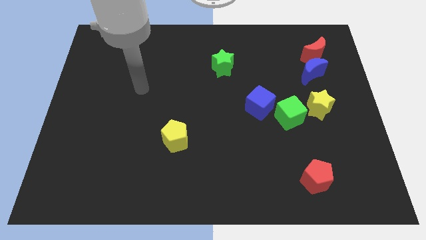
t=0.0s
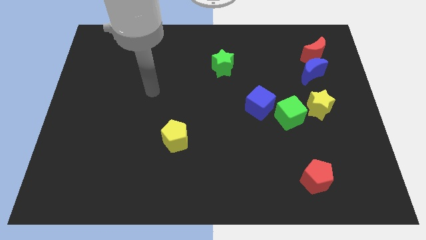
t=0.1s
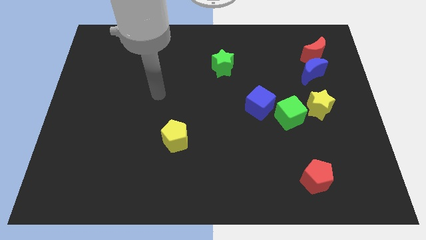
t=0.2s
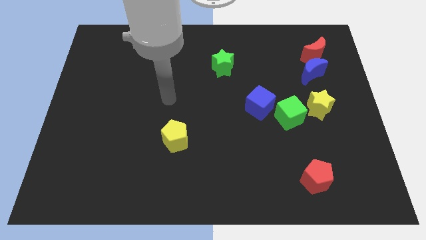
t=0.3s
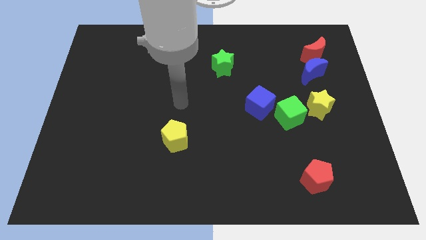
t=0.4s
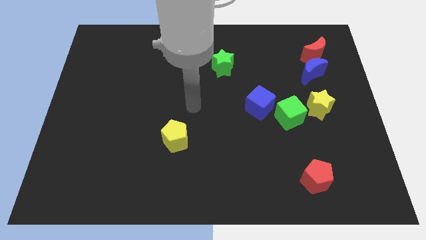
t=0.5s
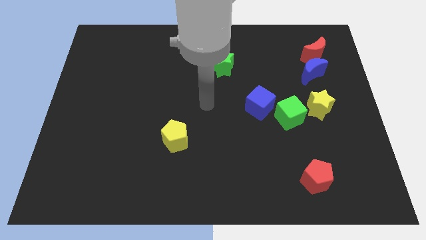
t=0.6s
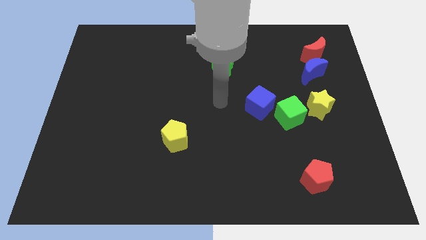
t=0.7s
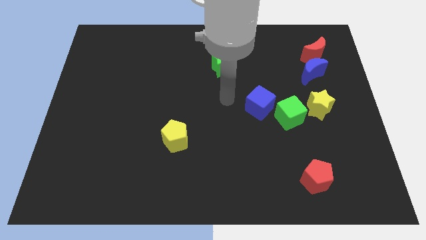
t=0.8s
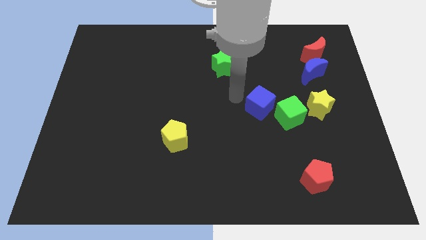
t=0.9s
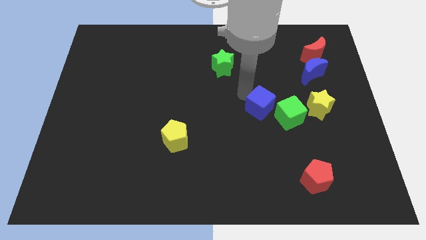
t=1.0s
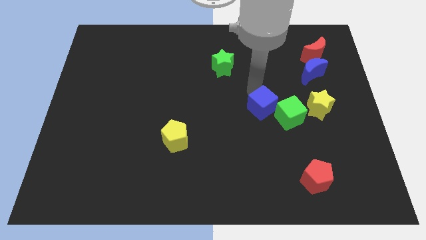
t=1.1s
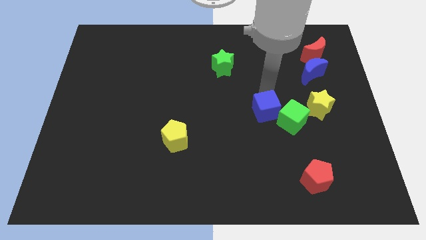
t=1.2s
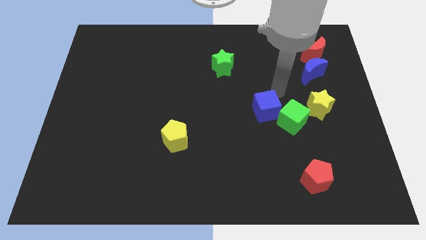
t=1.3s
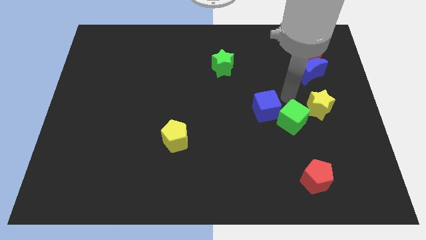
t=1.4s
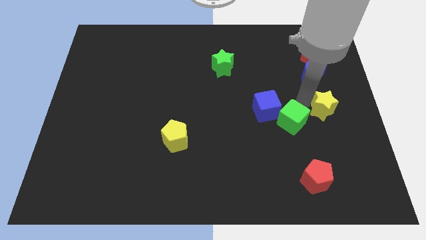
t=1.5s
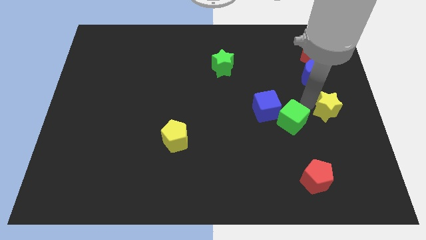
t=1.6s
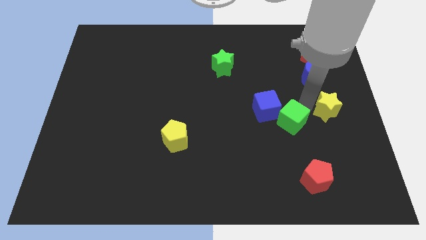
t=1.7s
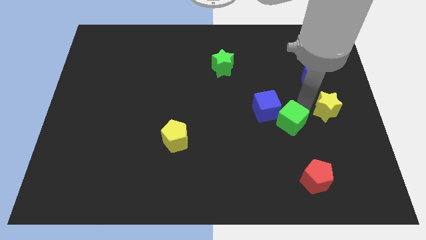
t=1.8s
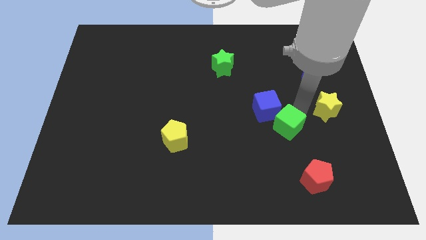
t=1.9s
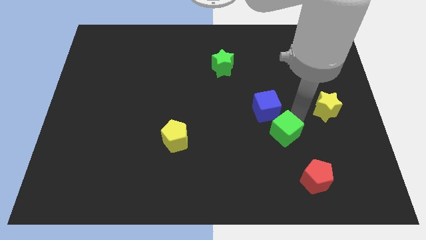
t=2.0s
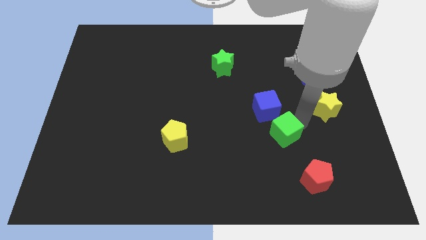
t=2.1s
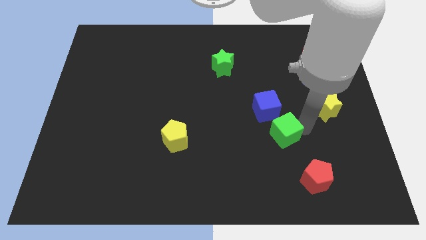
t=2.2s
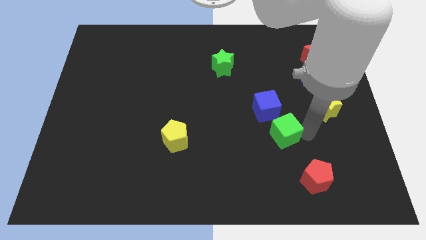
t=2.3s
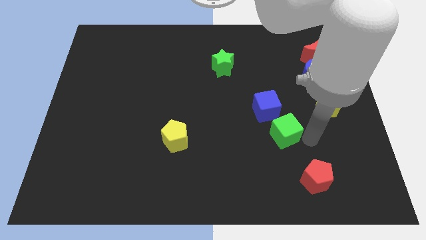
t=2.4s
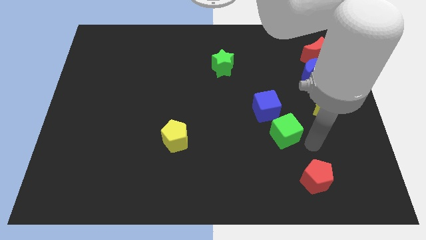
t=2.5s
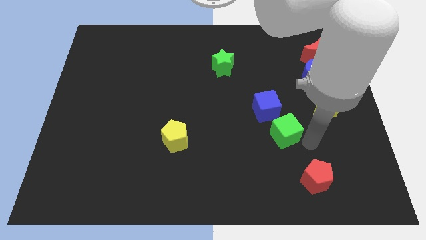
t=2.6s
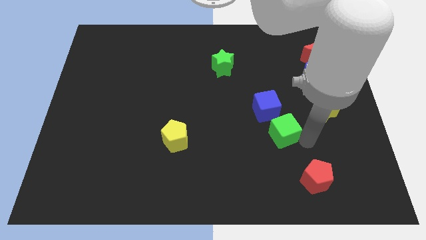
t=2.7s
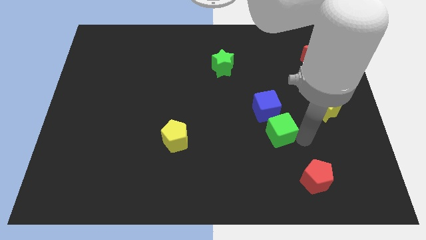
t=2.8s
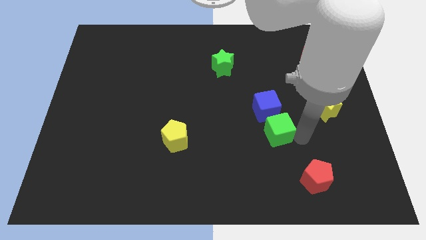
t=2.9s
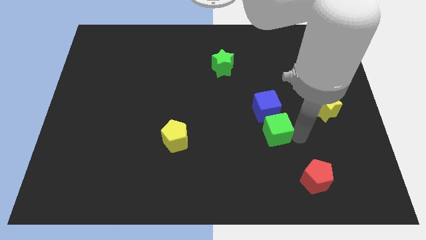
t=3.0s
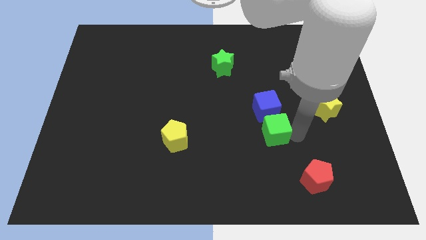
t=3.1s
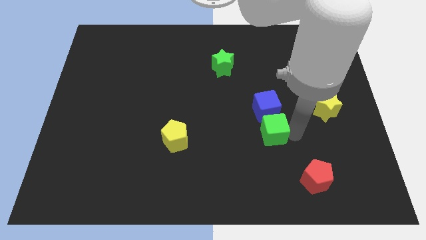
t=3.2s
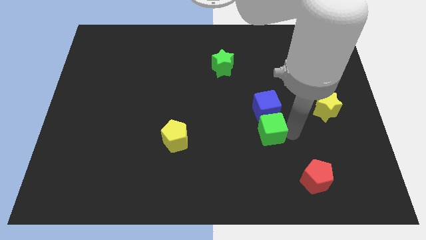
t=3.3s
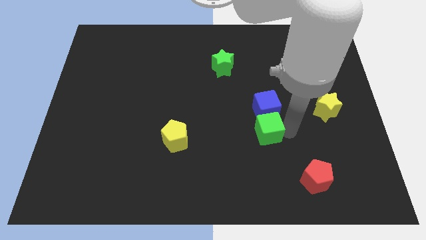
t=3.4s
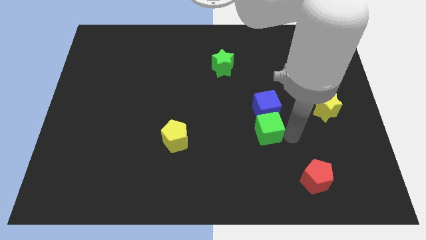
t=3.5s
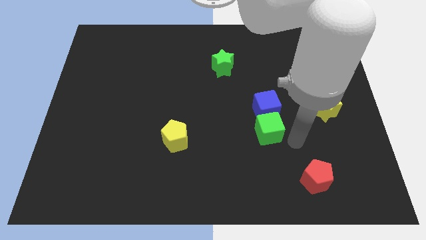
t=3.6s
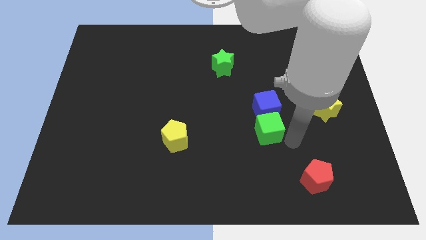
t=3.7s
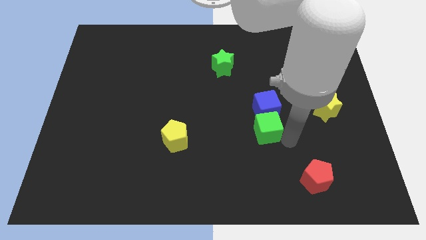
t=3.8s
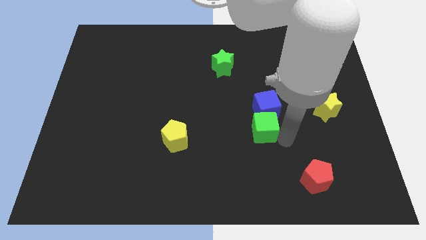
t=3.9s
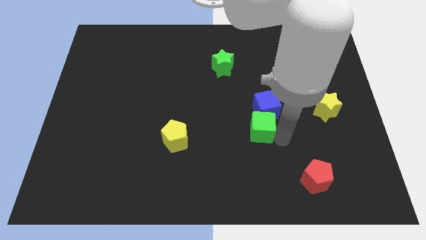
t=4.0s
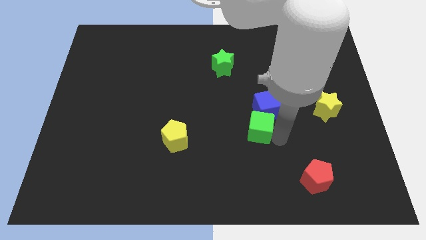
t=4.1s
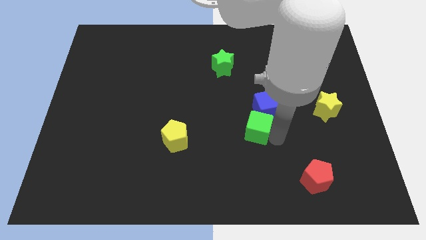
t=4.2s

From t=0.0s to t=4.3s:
slide the green cube to the left slightly

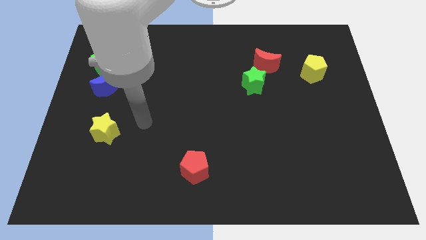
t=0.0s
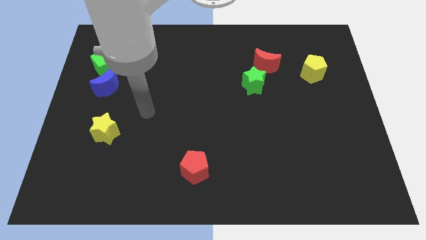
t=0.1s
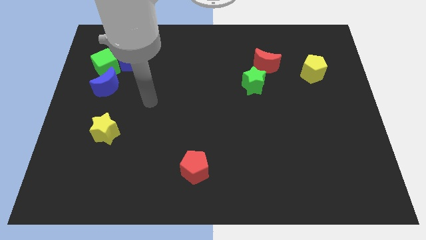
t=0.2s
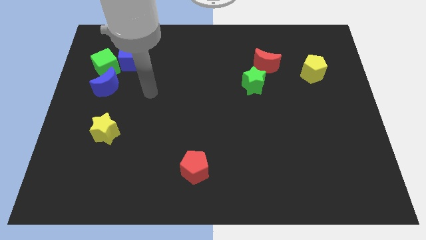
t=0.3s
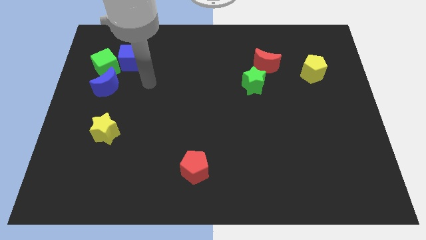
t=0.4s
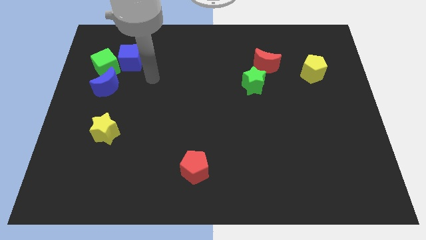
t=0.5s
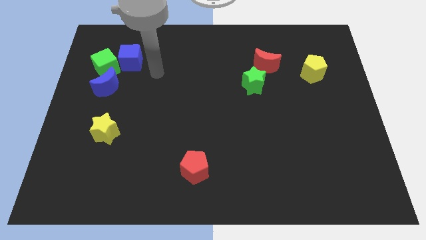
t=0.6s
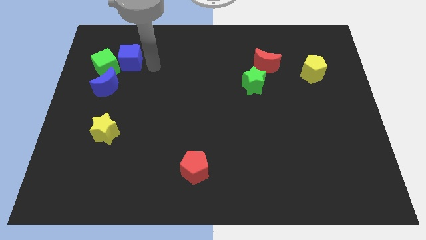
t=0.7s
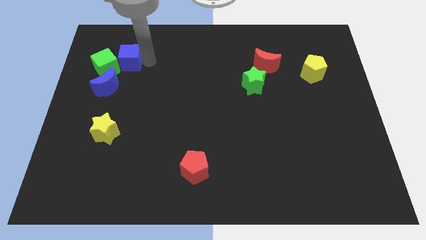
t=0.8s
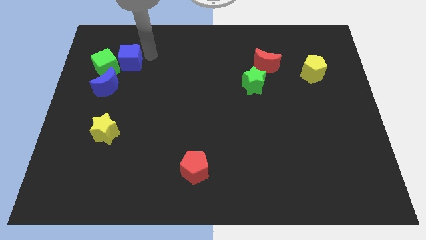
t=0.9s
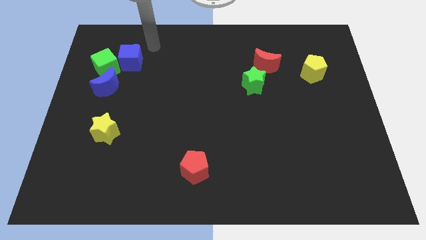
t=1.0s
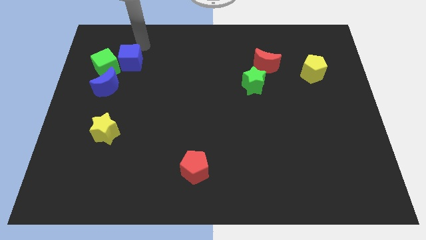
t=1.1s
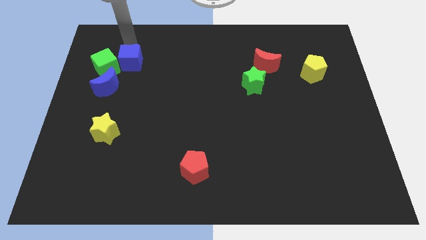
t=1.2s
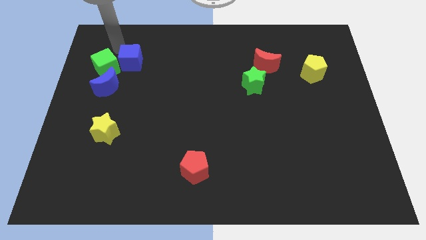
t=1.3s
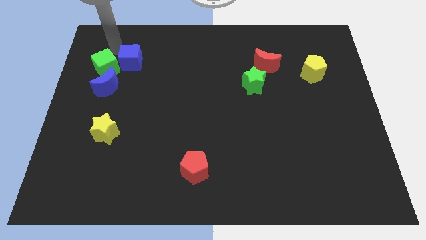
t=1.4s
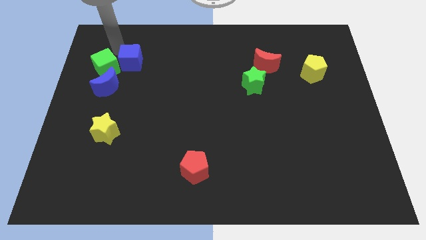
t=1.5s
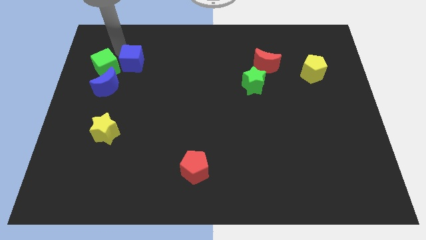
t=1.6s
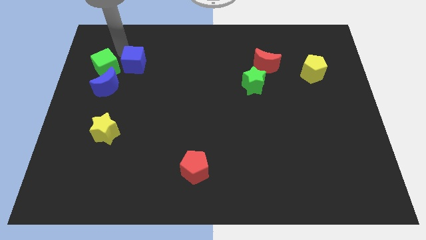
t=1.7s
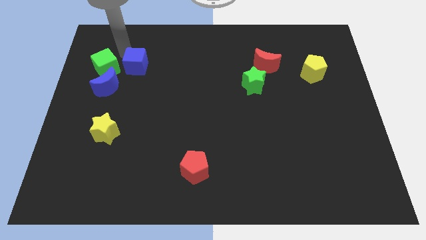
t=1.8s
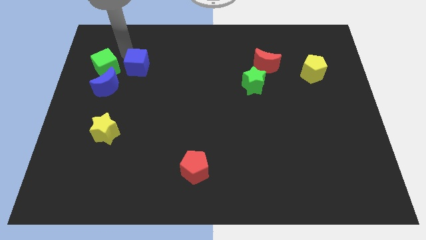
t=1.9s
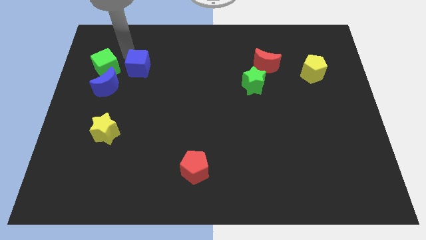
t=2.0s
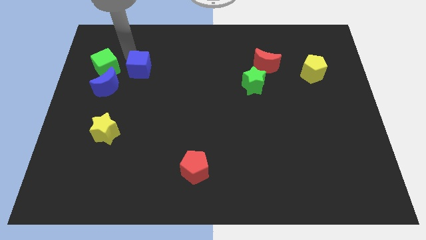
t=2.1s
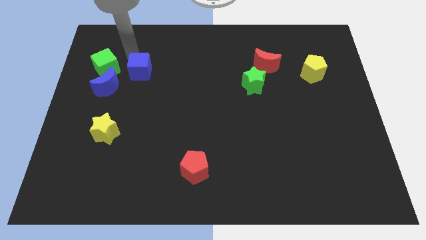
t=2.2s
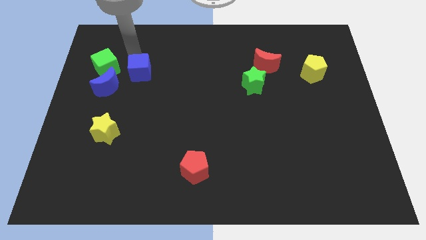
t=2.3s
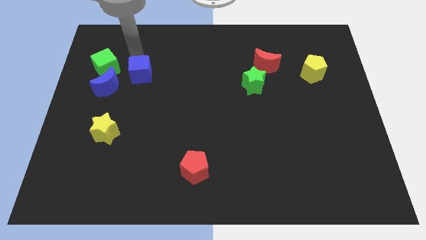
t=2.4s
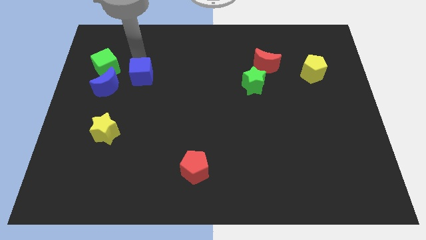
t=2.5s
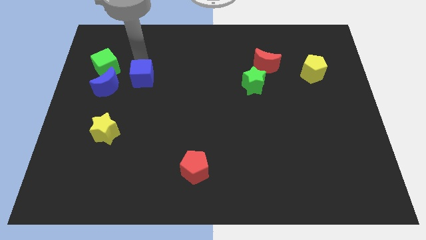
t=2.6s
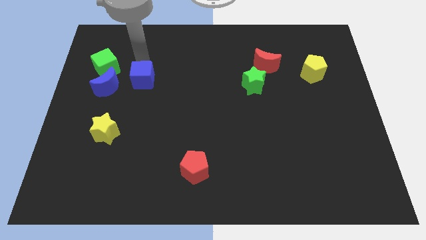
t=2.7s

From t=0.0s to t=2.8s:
slightly move the blue cube downwards and to the right

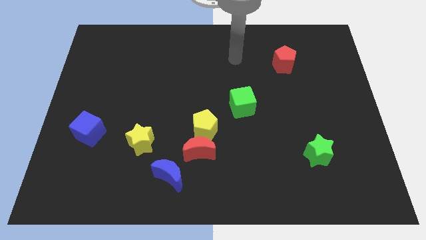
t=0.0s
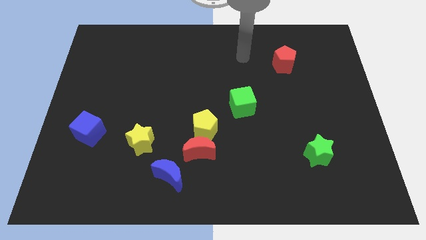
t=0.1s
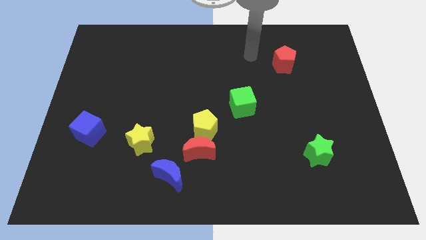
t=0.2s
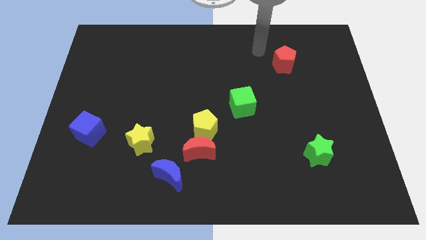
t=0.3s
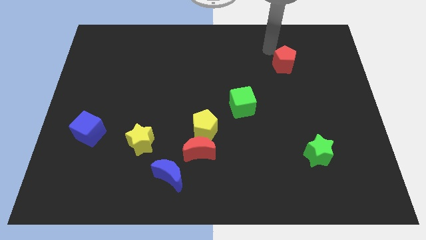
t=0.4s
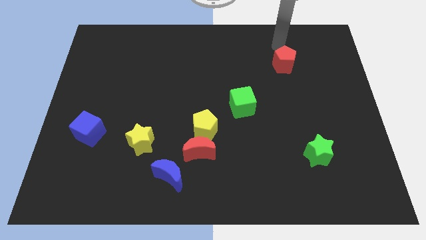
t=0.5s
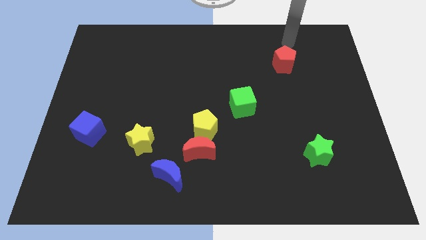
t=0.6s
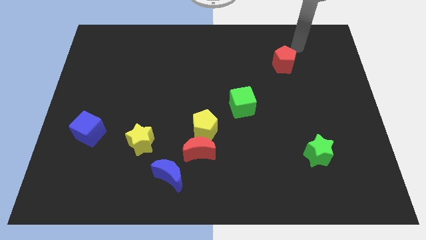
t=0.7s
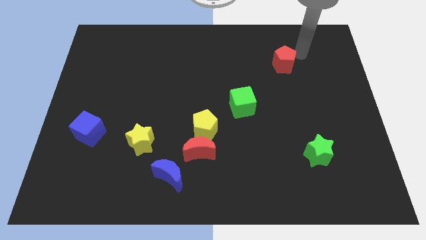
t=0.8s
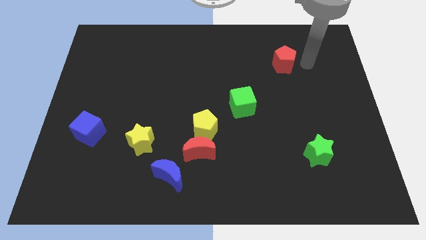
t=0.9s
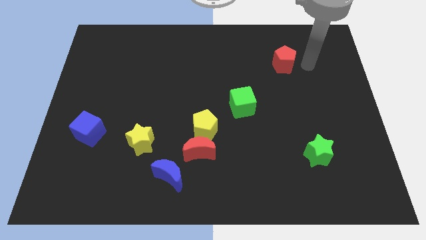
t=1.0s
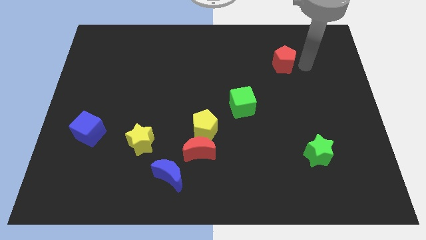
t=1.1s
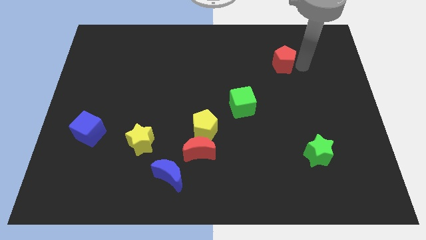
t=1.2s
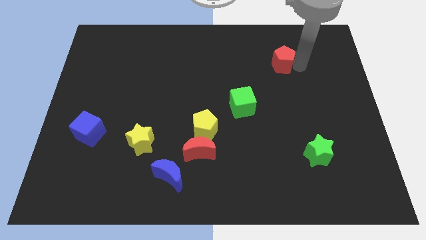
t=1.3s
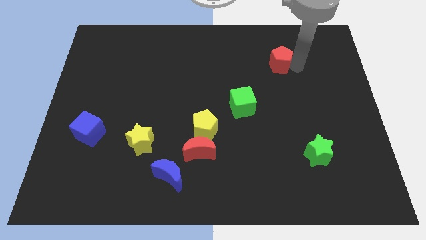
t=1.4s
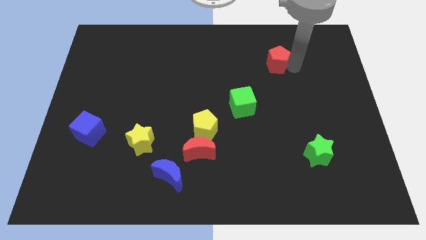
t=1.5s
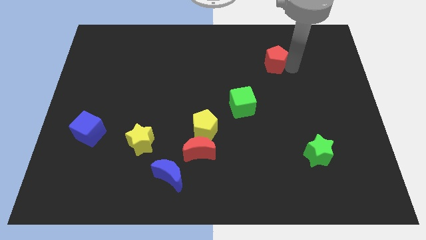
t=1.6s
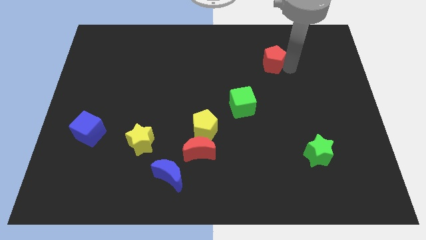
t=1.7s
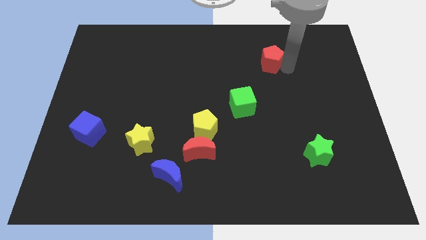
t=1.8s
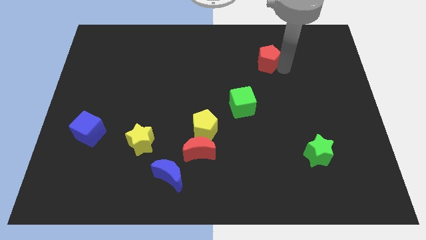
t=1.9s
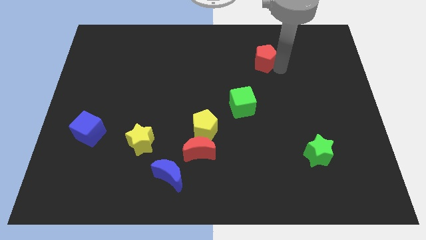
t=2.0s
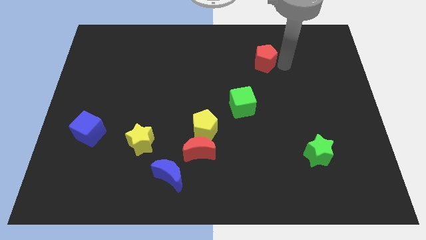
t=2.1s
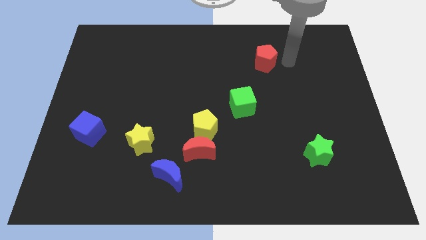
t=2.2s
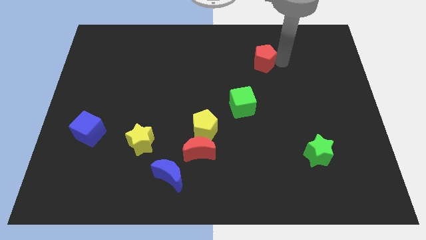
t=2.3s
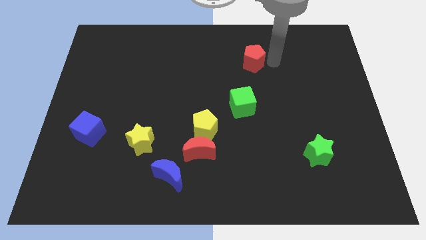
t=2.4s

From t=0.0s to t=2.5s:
slide the red pentagon to the left slightly
